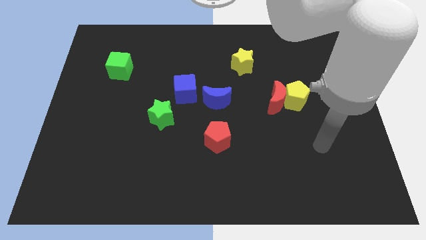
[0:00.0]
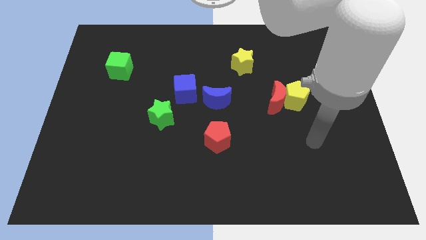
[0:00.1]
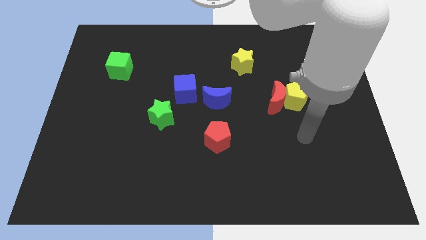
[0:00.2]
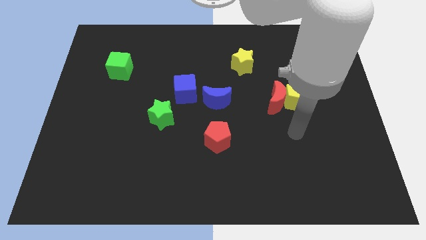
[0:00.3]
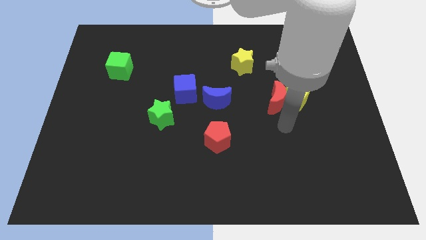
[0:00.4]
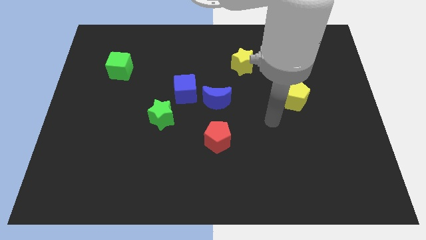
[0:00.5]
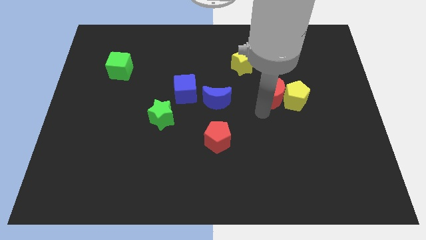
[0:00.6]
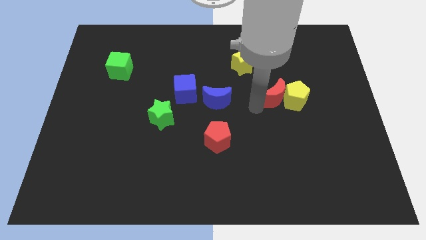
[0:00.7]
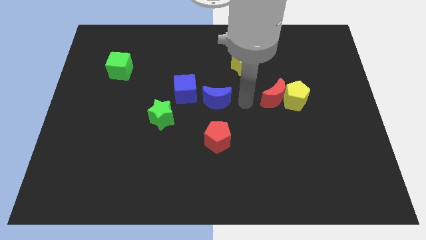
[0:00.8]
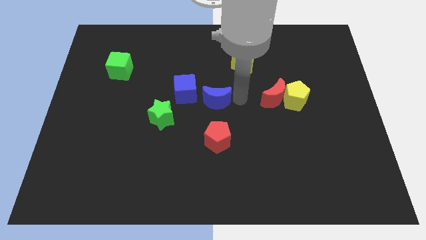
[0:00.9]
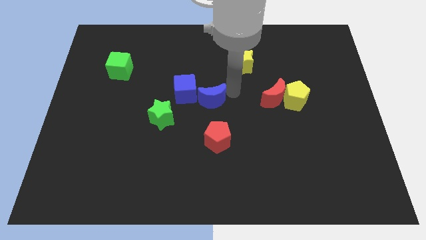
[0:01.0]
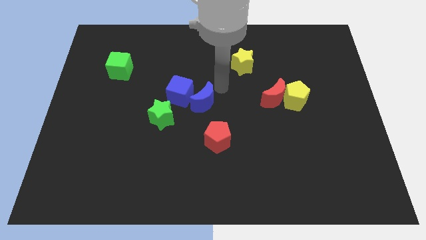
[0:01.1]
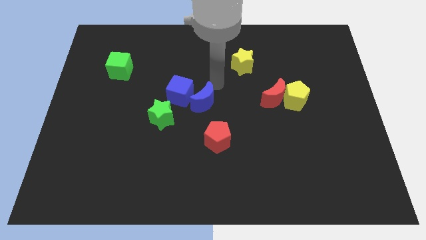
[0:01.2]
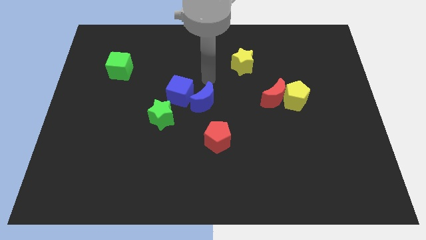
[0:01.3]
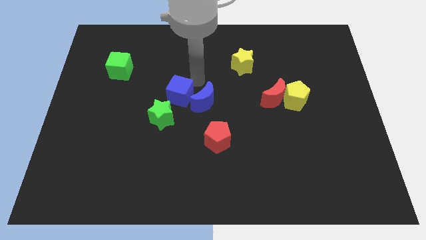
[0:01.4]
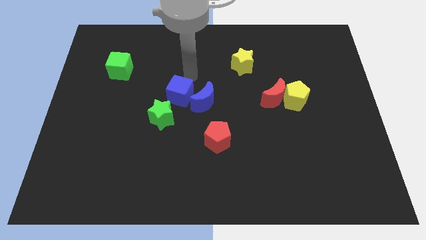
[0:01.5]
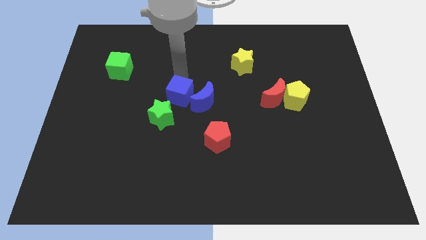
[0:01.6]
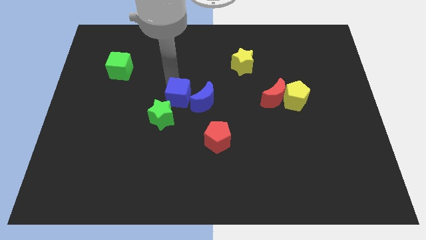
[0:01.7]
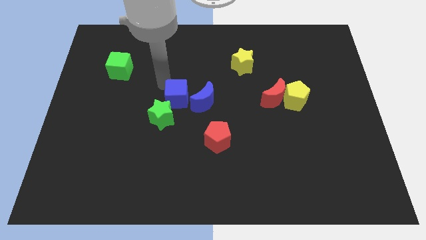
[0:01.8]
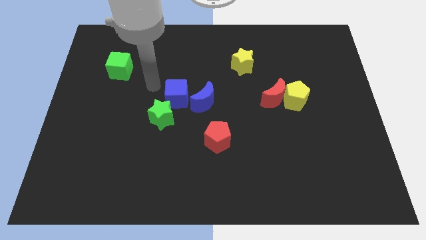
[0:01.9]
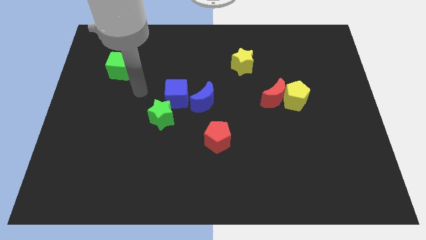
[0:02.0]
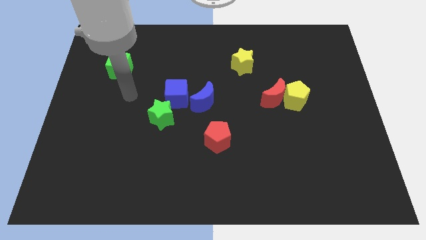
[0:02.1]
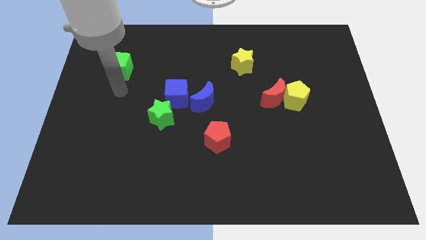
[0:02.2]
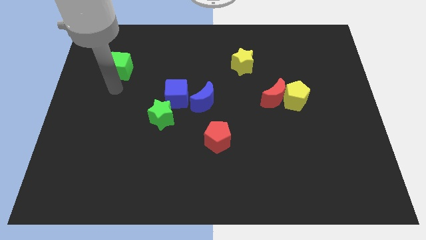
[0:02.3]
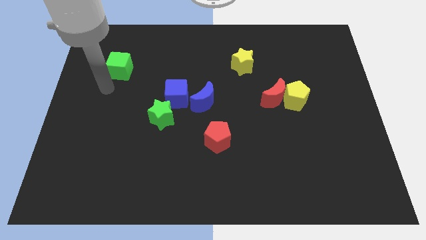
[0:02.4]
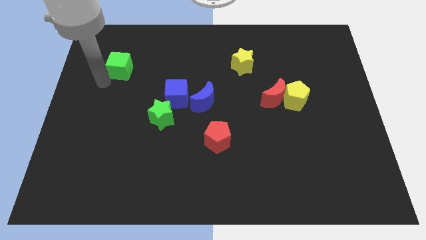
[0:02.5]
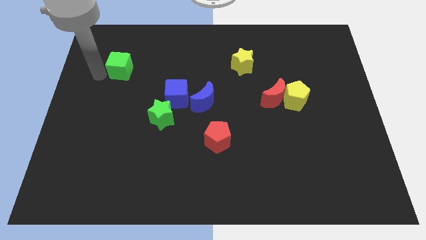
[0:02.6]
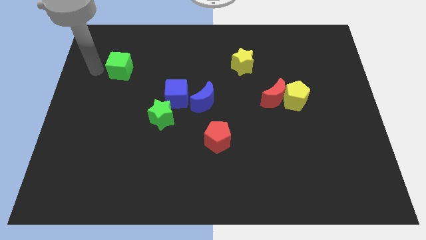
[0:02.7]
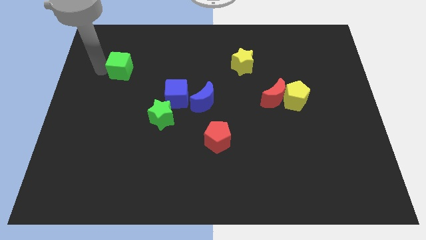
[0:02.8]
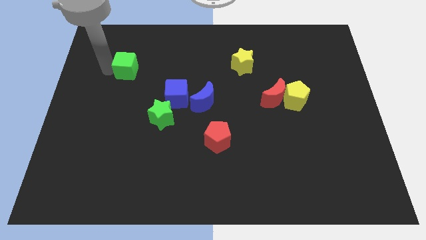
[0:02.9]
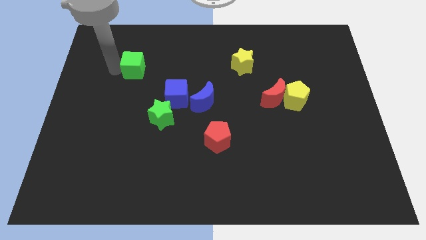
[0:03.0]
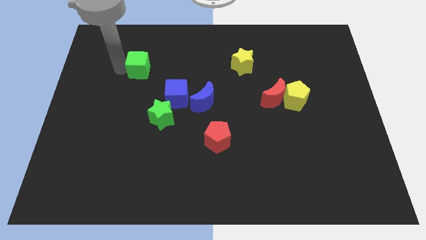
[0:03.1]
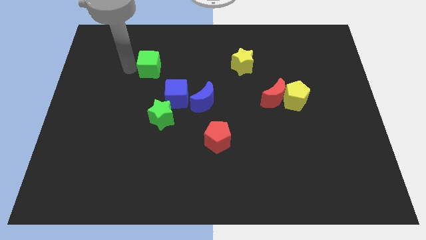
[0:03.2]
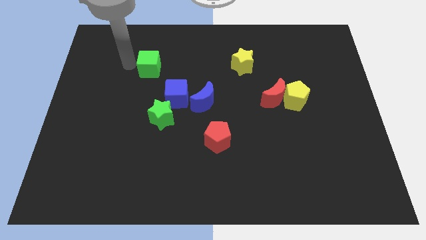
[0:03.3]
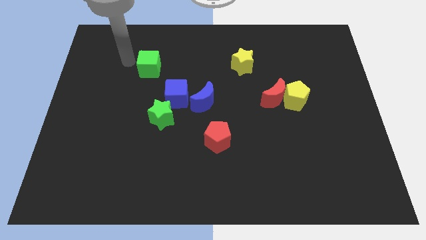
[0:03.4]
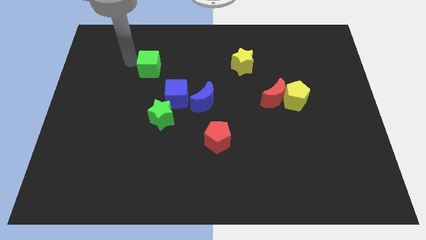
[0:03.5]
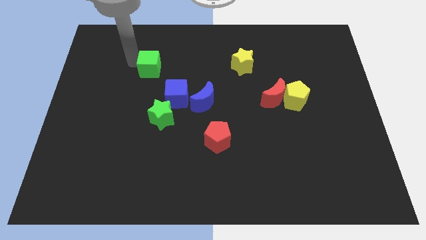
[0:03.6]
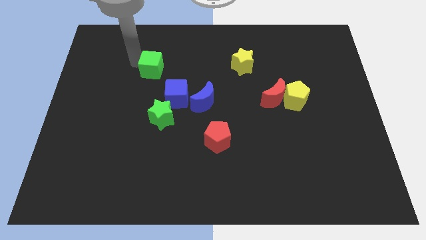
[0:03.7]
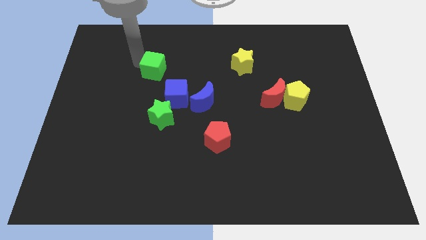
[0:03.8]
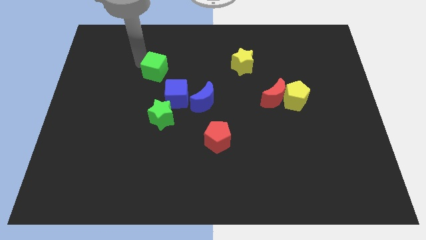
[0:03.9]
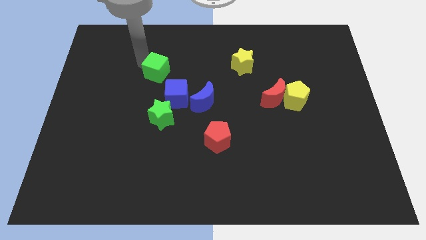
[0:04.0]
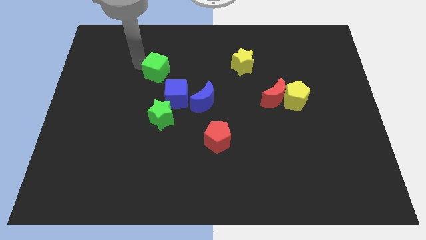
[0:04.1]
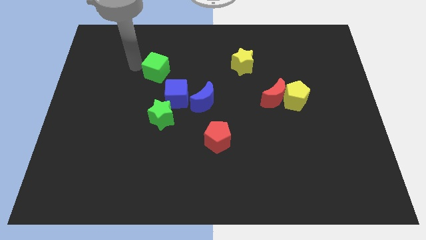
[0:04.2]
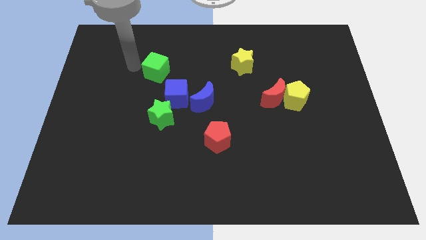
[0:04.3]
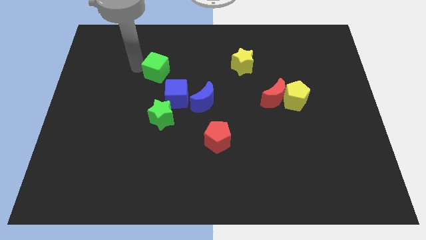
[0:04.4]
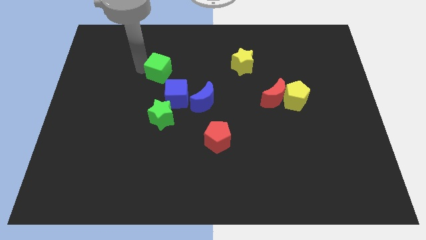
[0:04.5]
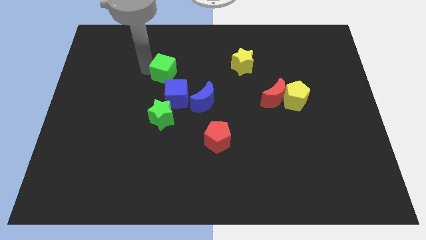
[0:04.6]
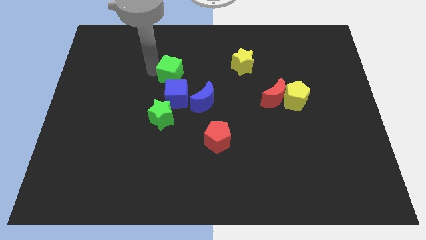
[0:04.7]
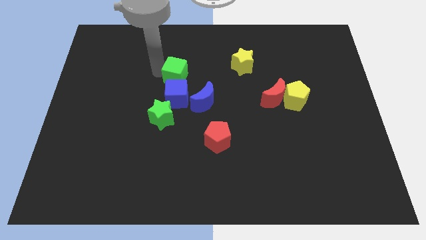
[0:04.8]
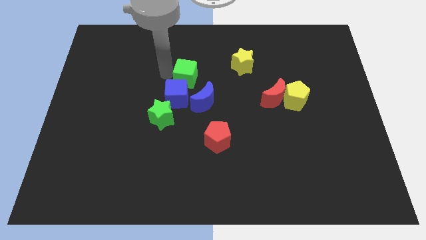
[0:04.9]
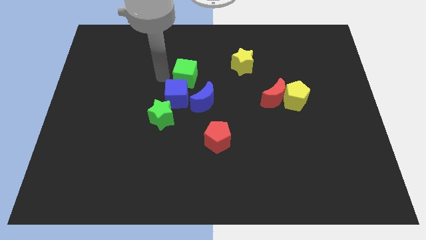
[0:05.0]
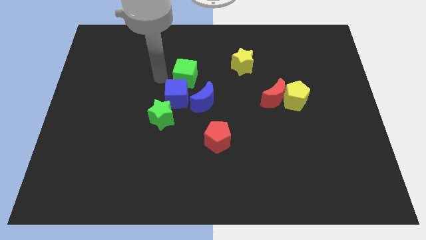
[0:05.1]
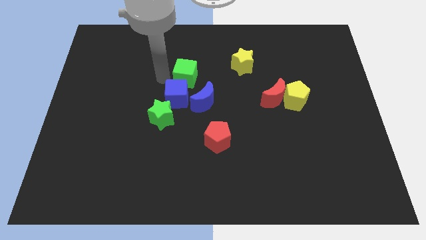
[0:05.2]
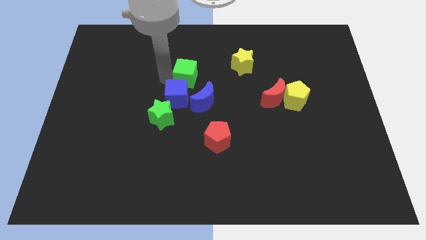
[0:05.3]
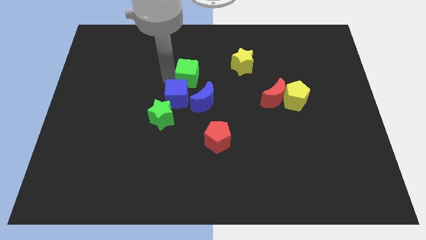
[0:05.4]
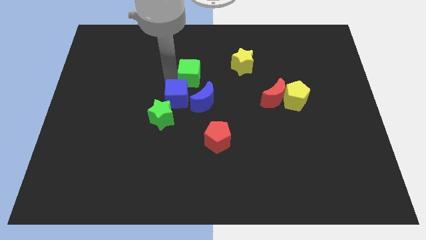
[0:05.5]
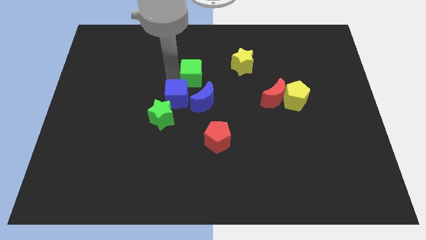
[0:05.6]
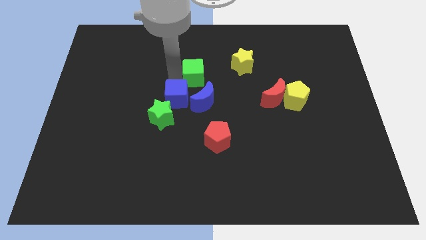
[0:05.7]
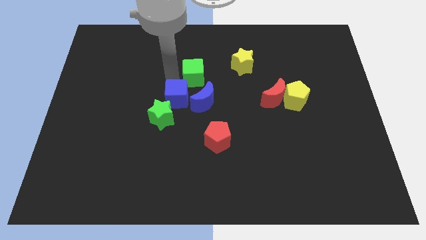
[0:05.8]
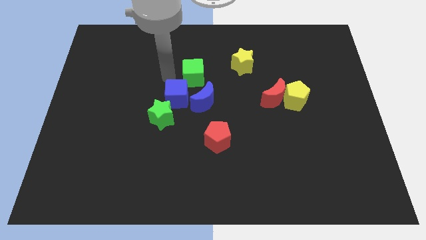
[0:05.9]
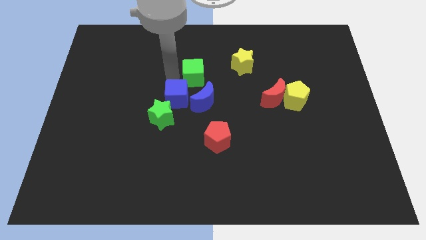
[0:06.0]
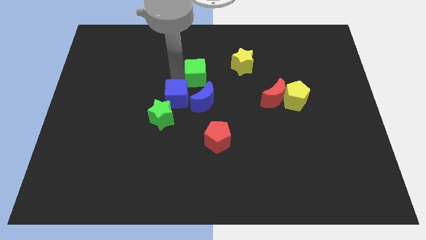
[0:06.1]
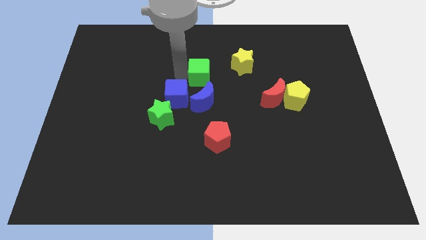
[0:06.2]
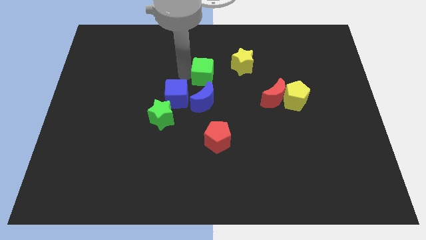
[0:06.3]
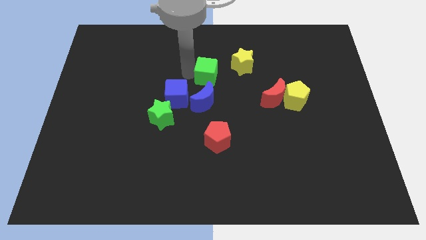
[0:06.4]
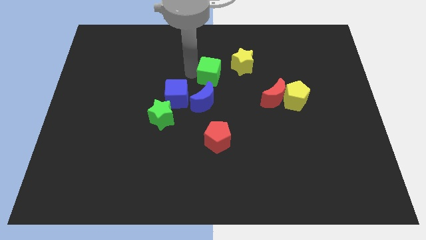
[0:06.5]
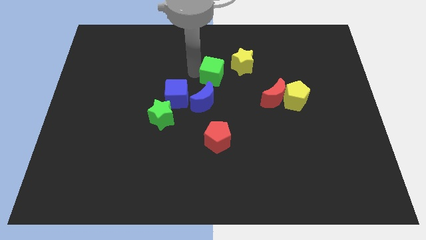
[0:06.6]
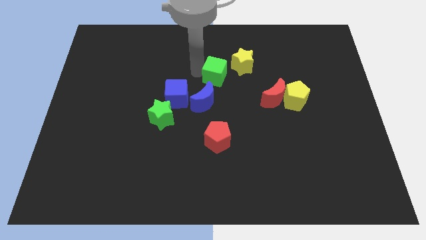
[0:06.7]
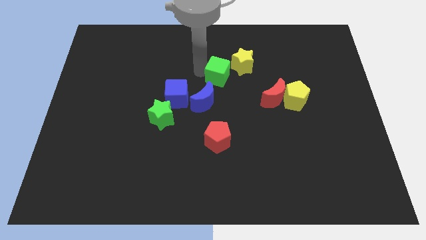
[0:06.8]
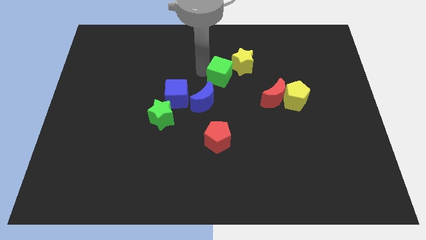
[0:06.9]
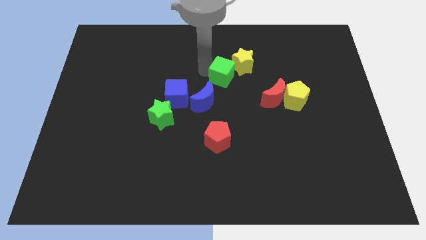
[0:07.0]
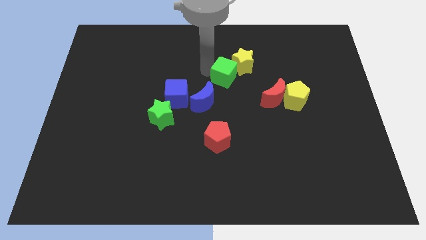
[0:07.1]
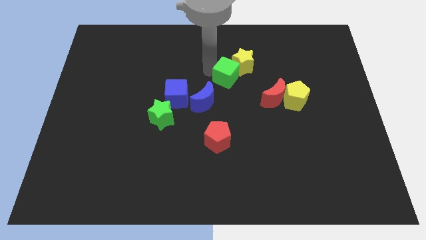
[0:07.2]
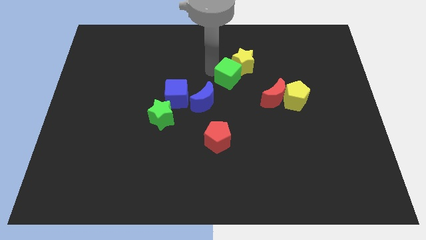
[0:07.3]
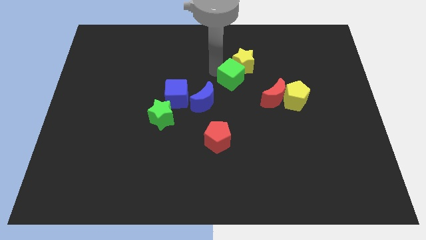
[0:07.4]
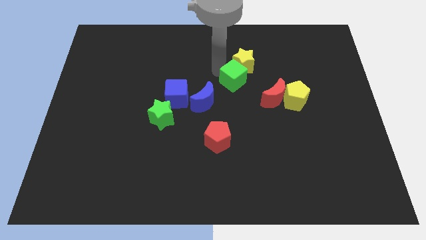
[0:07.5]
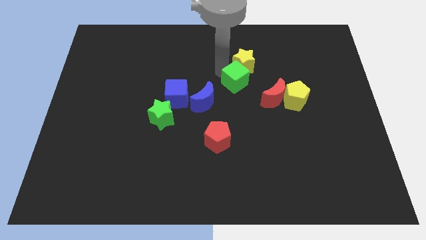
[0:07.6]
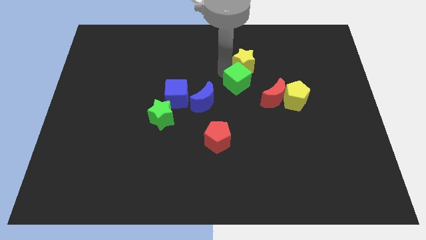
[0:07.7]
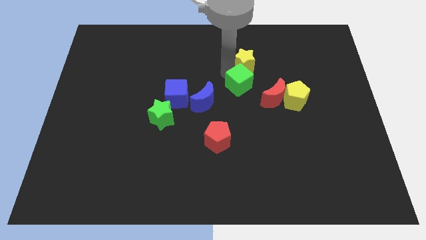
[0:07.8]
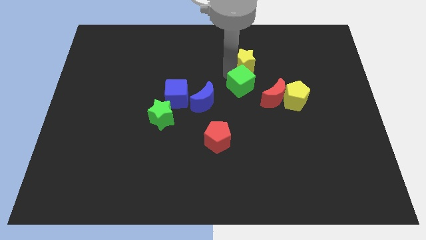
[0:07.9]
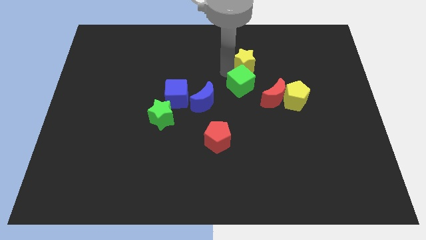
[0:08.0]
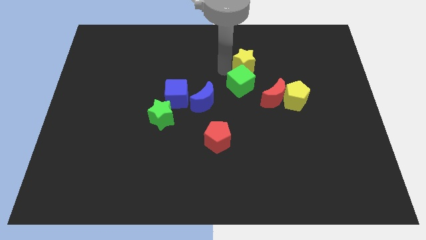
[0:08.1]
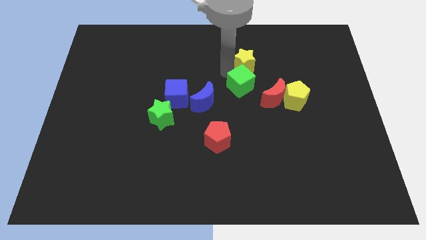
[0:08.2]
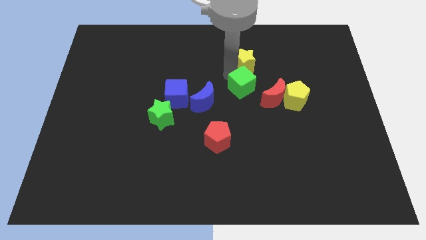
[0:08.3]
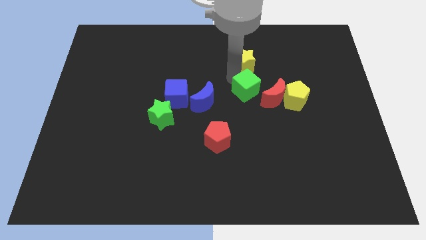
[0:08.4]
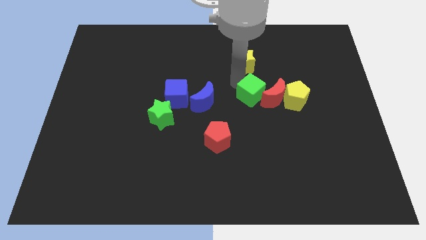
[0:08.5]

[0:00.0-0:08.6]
move the green cube towards the red moon
